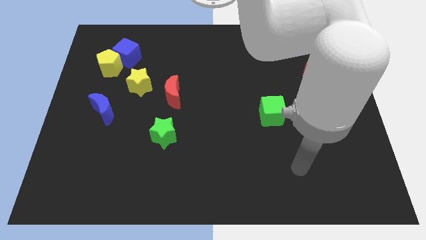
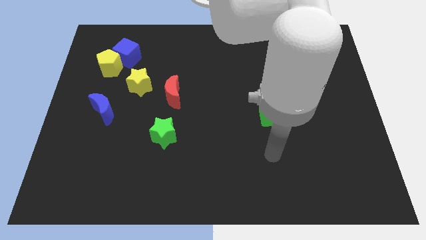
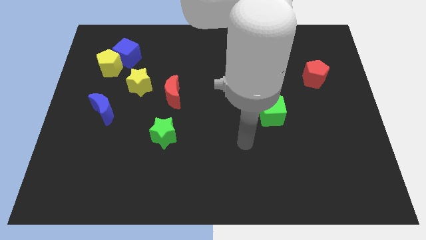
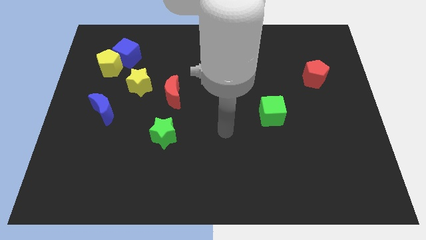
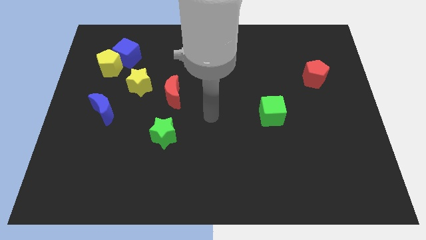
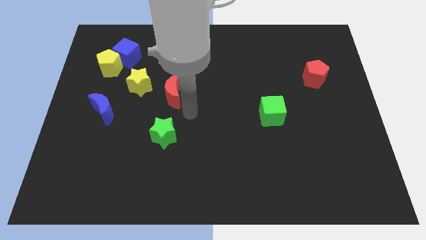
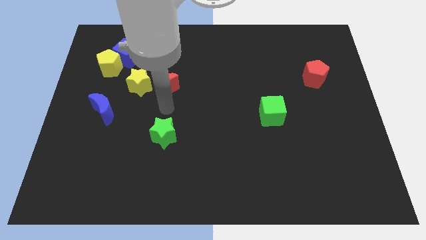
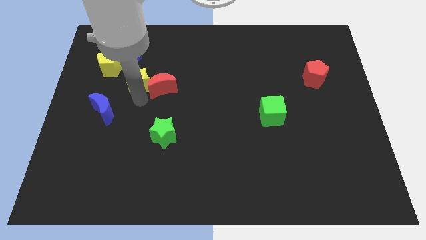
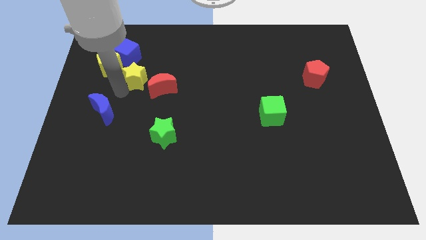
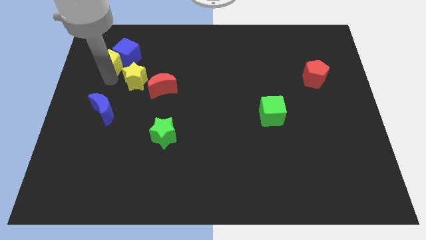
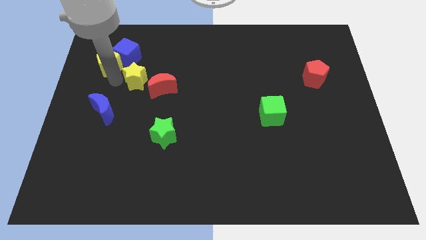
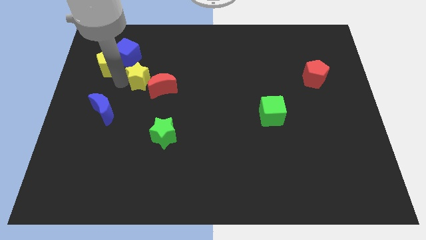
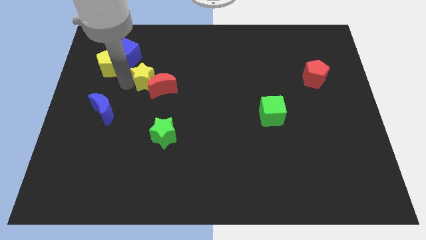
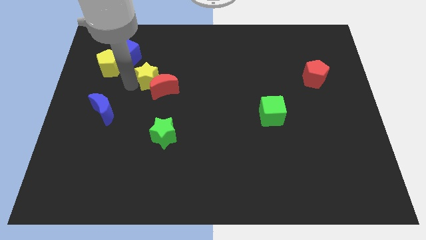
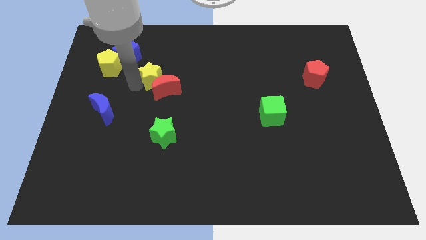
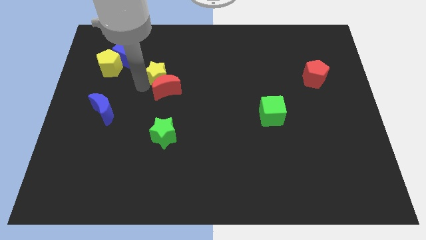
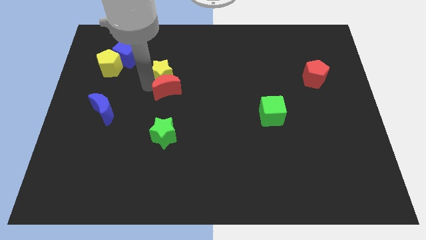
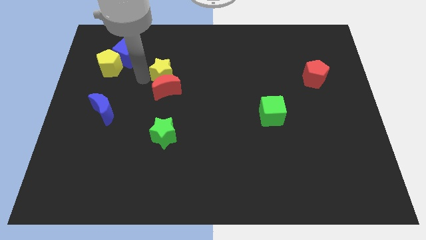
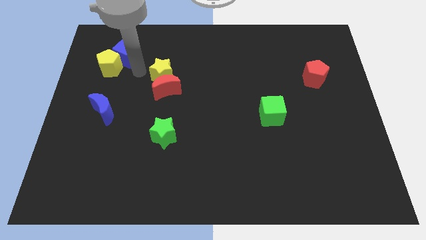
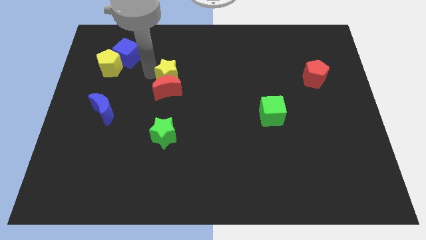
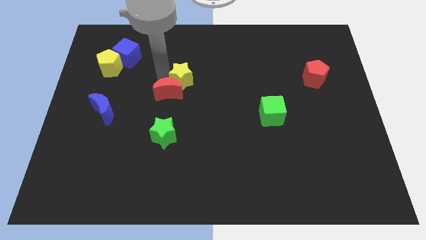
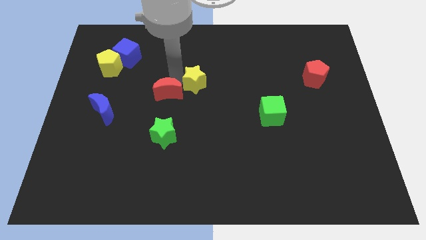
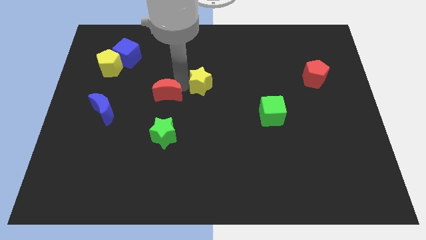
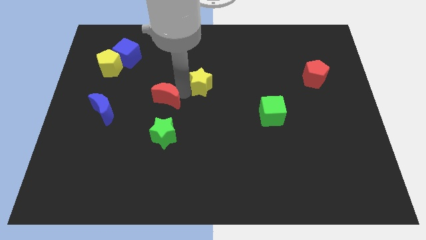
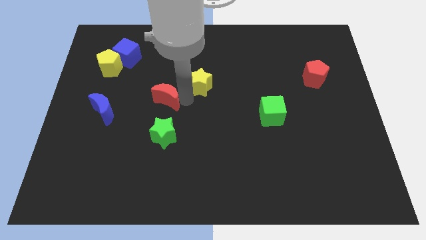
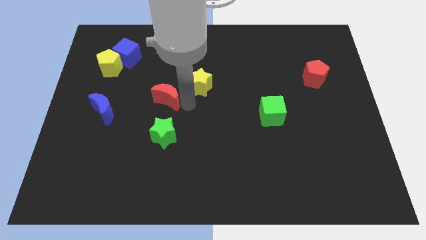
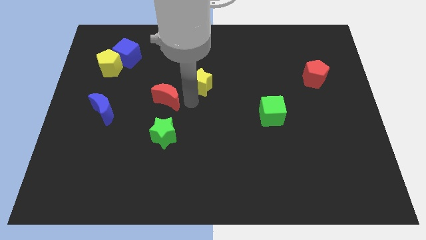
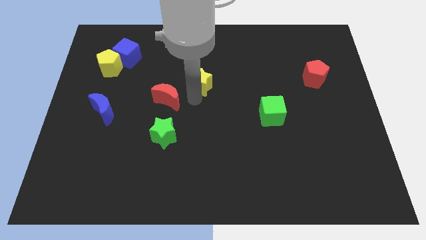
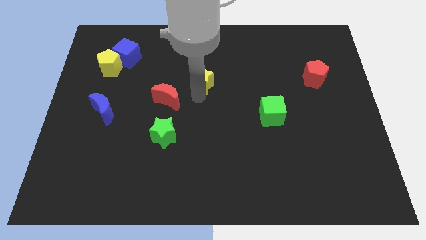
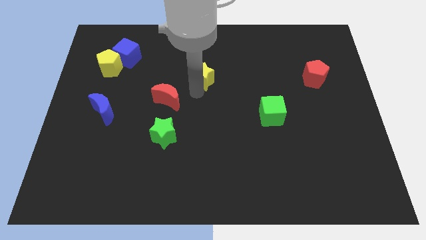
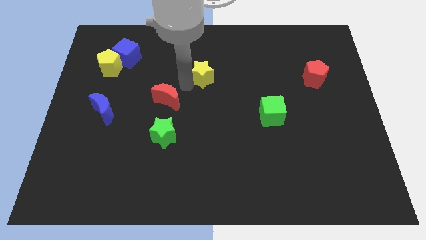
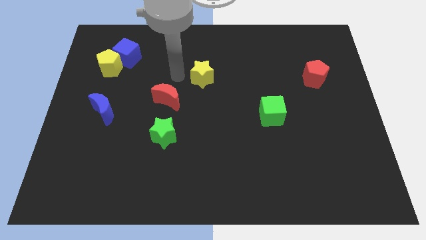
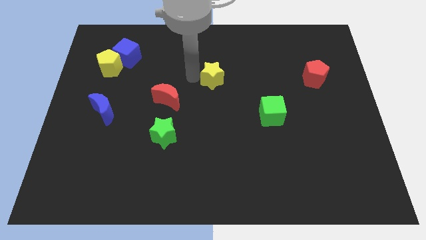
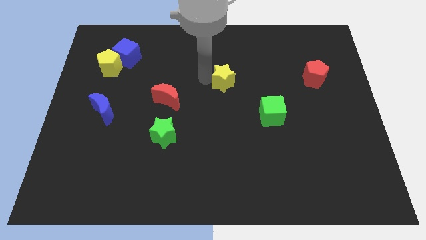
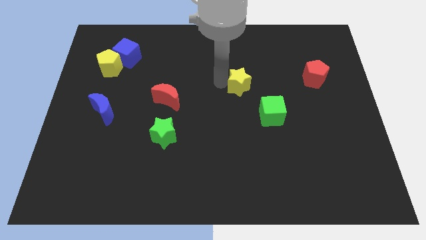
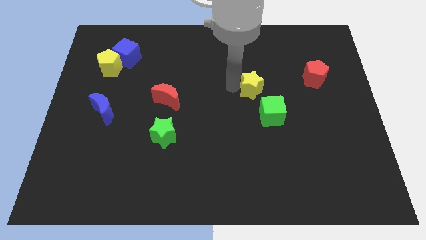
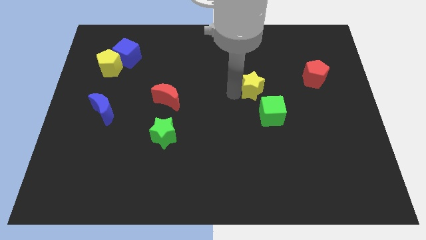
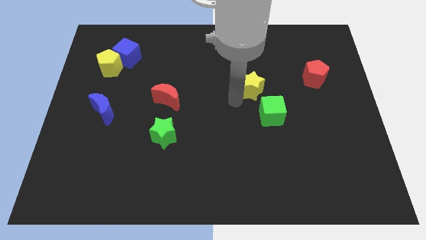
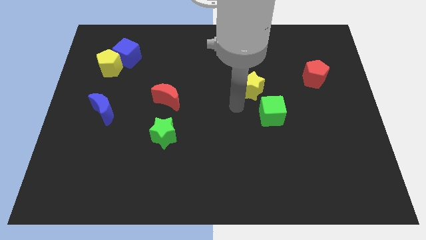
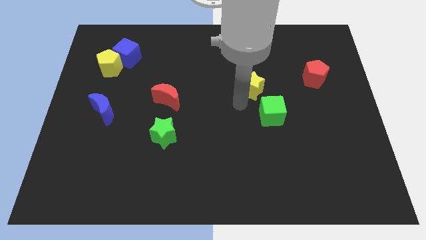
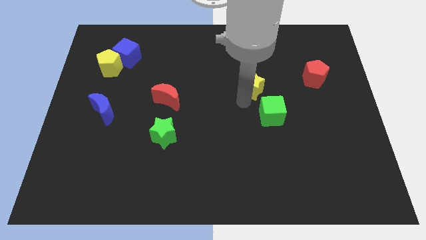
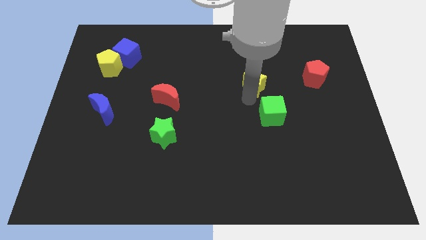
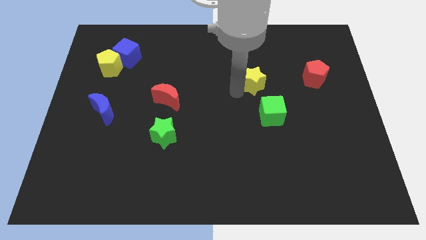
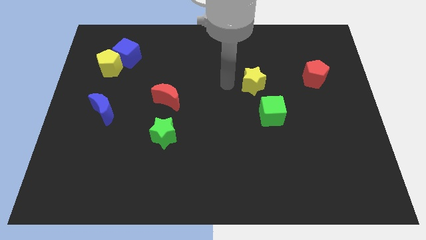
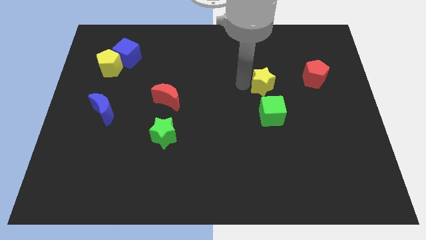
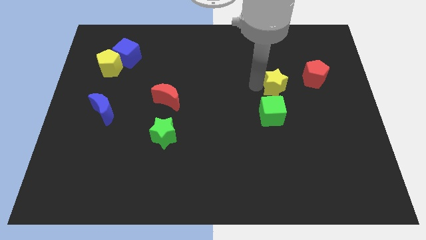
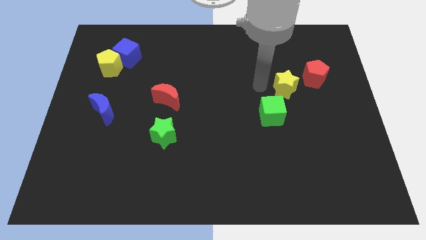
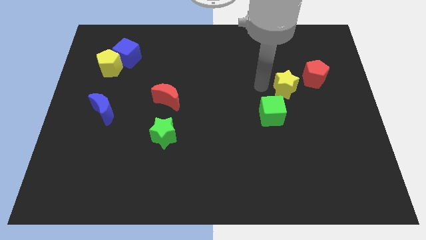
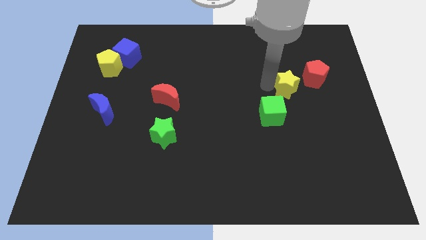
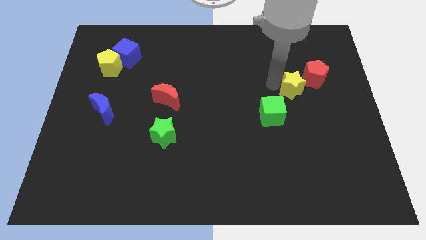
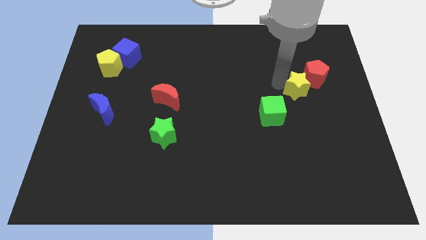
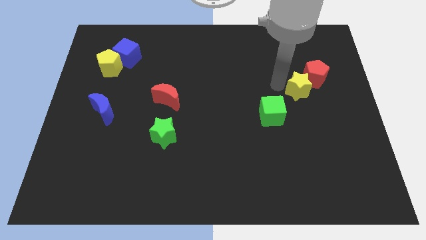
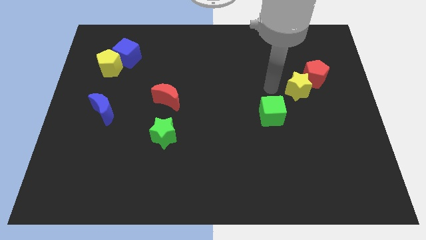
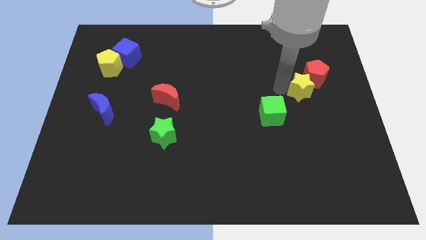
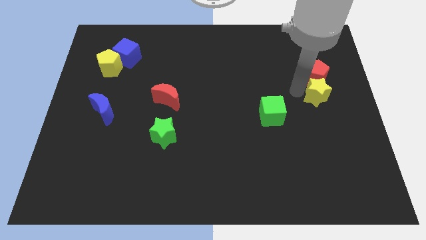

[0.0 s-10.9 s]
slide the yellow star to the center right
